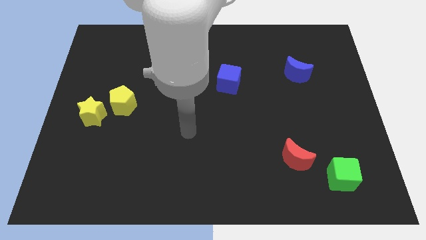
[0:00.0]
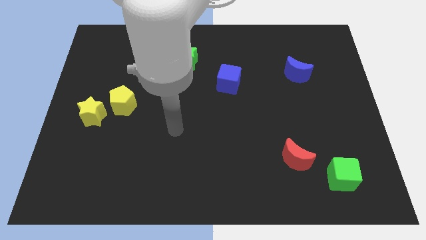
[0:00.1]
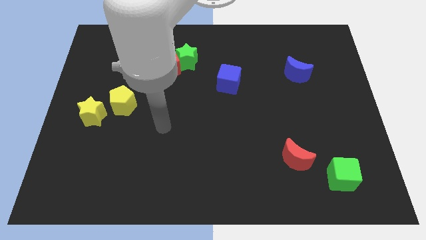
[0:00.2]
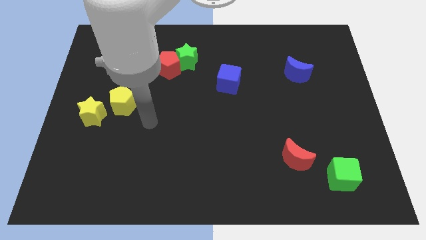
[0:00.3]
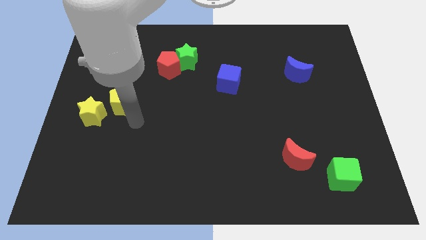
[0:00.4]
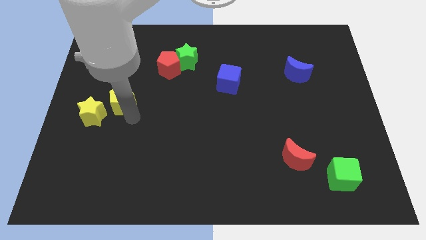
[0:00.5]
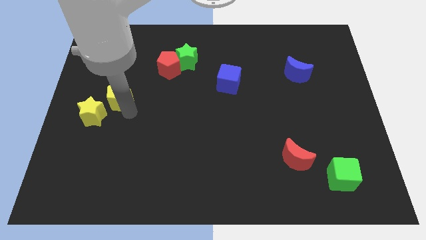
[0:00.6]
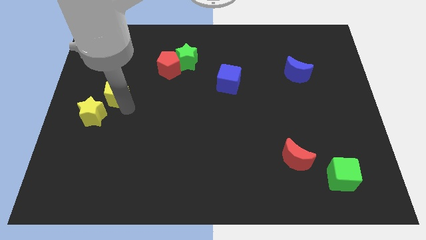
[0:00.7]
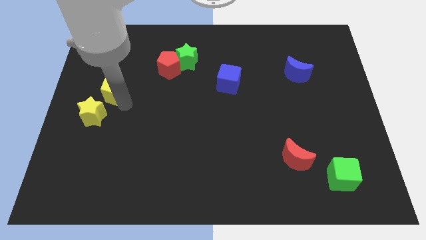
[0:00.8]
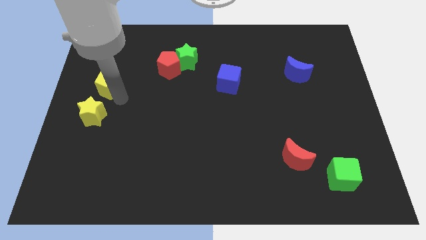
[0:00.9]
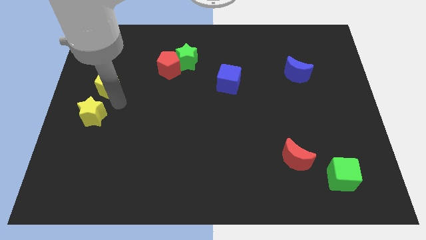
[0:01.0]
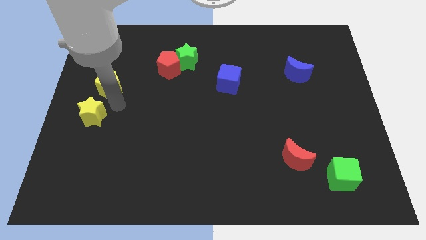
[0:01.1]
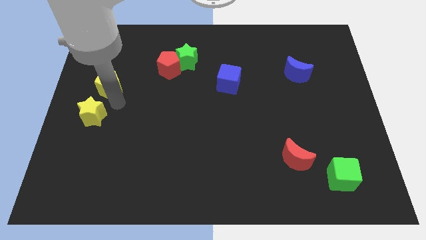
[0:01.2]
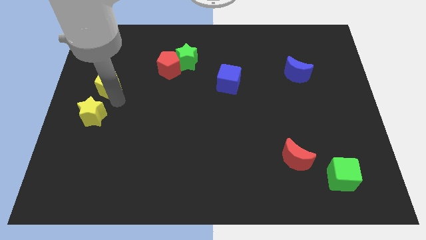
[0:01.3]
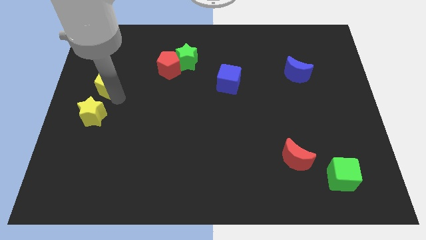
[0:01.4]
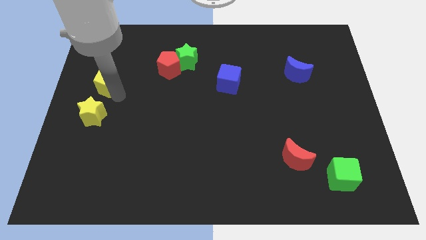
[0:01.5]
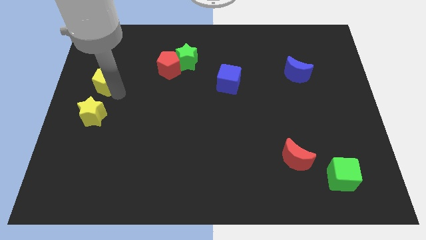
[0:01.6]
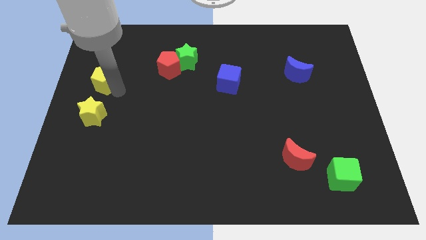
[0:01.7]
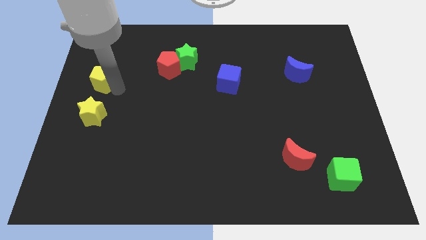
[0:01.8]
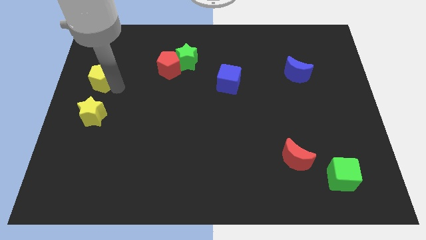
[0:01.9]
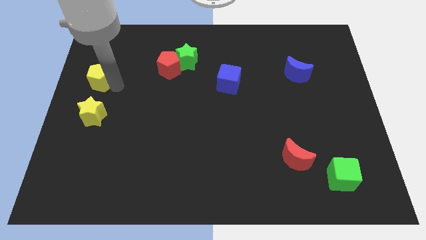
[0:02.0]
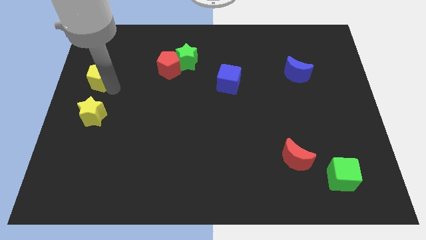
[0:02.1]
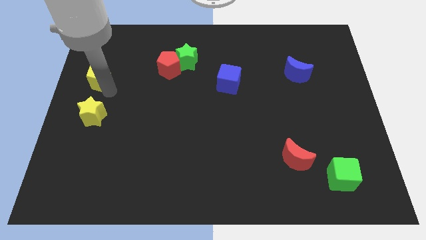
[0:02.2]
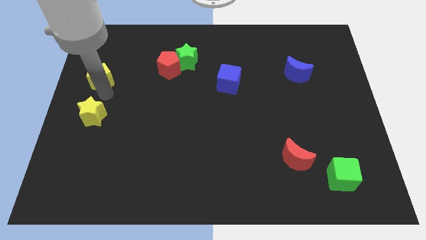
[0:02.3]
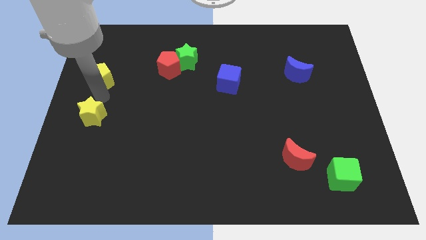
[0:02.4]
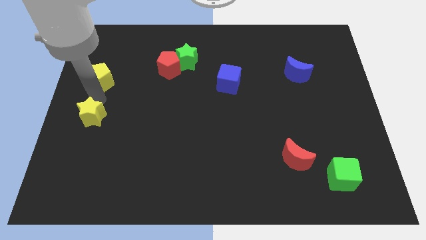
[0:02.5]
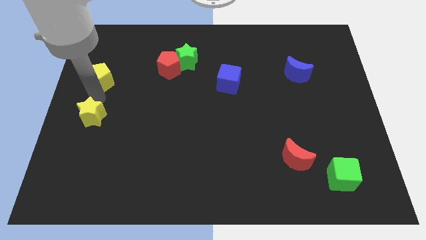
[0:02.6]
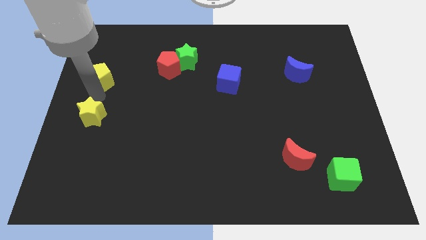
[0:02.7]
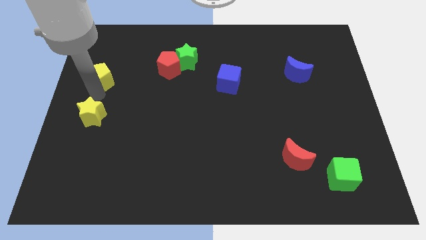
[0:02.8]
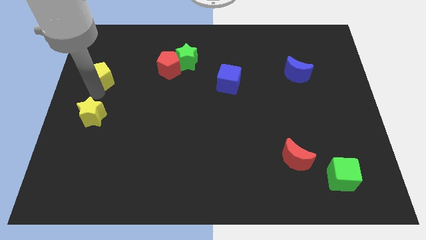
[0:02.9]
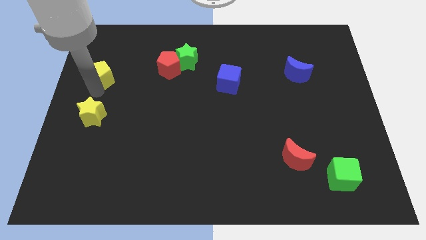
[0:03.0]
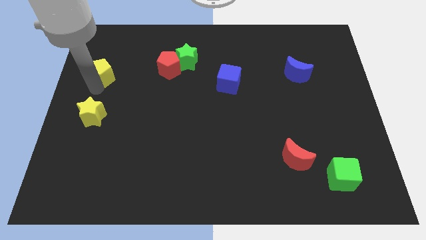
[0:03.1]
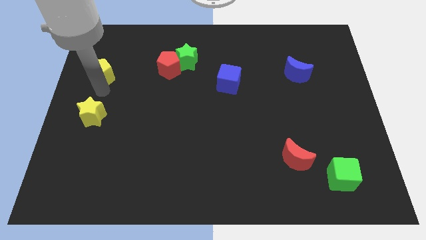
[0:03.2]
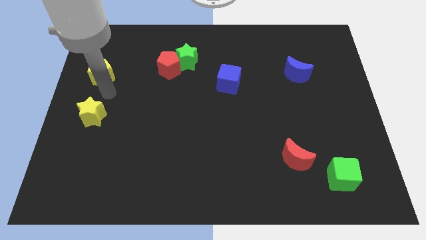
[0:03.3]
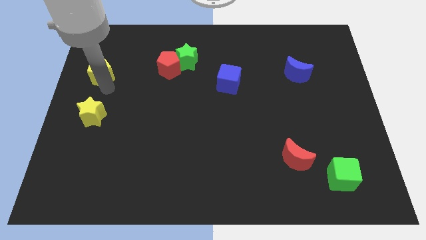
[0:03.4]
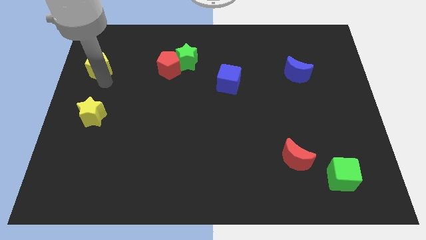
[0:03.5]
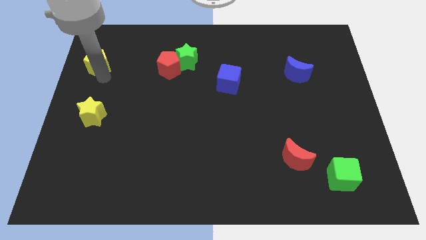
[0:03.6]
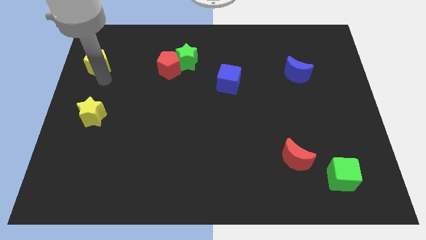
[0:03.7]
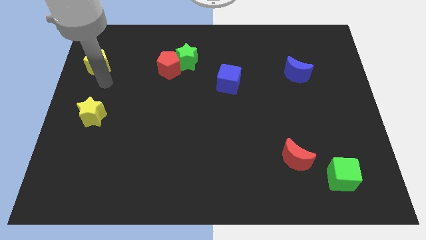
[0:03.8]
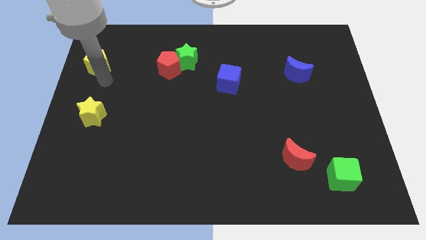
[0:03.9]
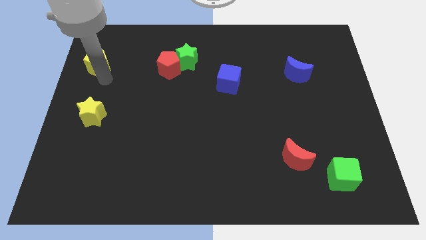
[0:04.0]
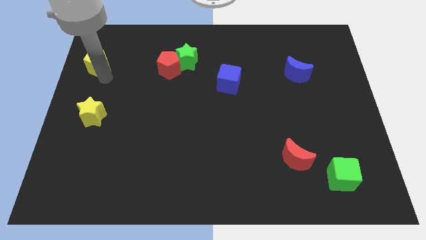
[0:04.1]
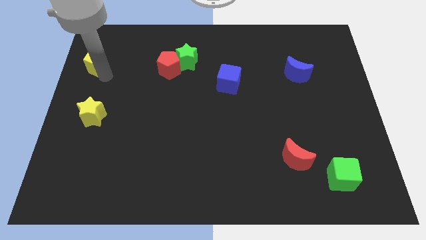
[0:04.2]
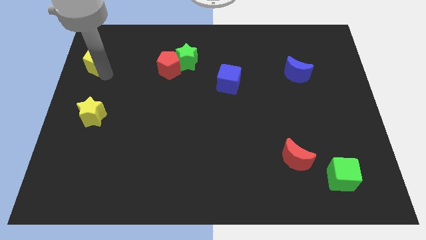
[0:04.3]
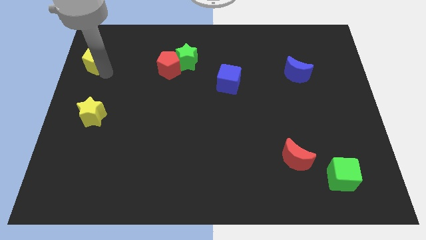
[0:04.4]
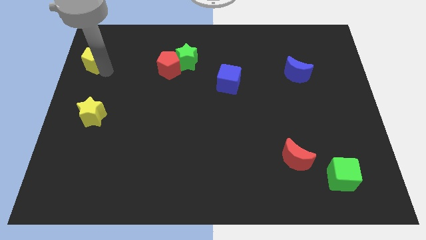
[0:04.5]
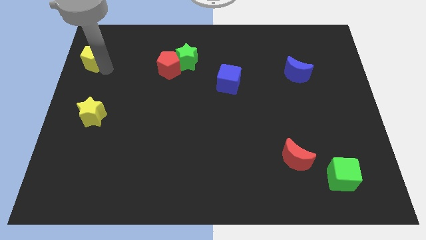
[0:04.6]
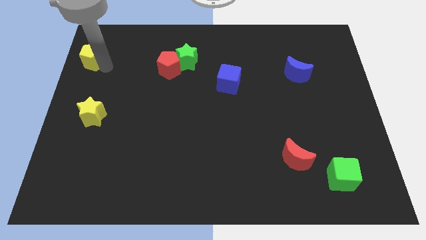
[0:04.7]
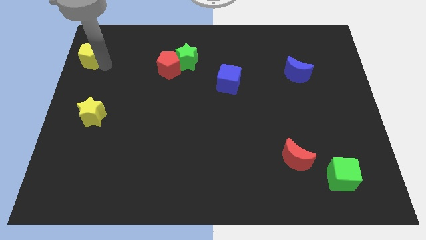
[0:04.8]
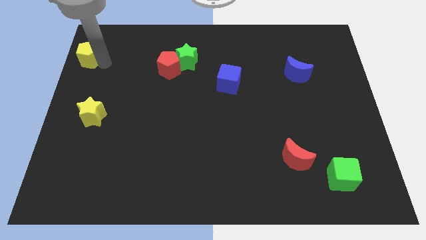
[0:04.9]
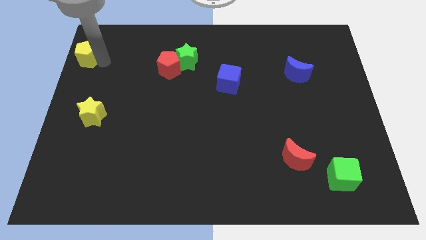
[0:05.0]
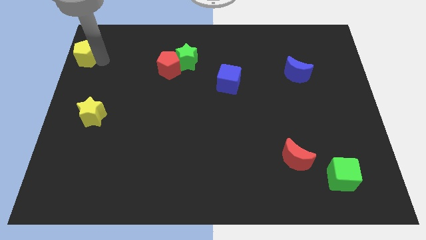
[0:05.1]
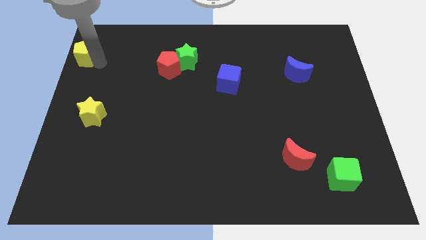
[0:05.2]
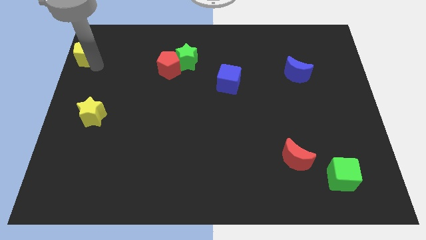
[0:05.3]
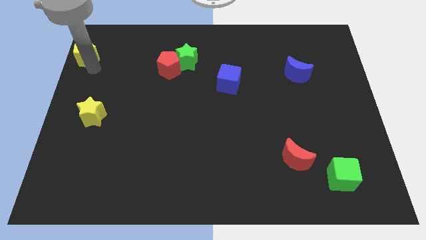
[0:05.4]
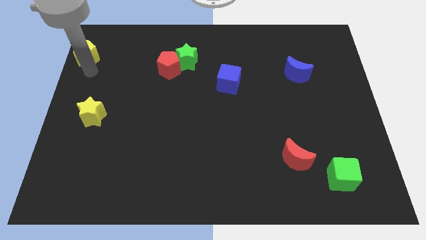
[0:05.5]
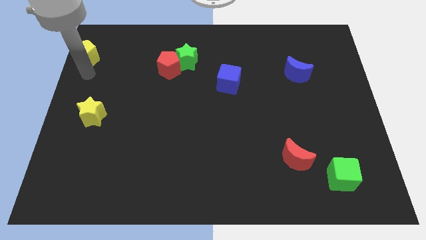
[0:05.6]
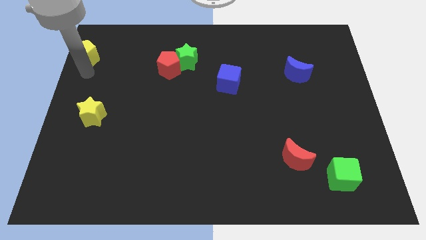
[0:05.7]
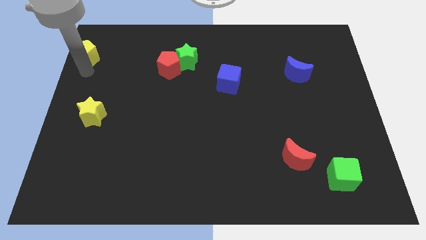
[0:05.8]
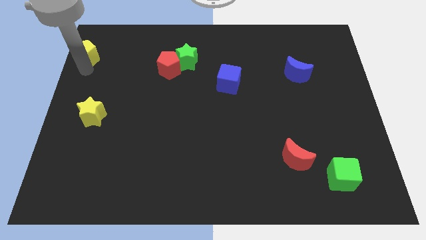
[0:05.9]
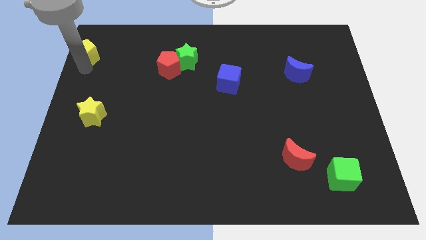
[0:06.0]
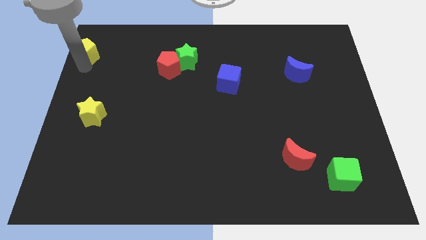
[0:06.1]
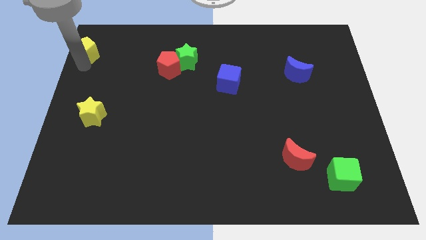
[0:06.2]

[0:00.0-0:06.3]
move the yellow pentagon to the top left corner
